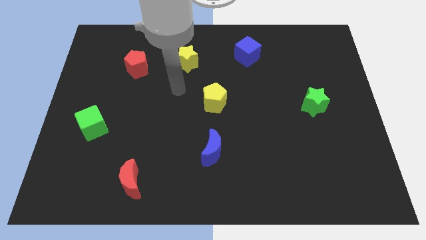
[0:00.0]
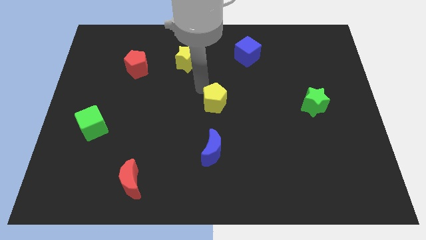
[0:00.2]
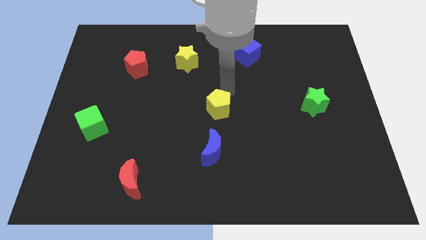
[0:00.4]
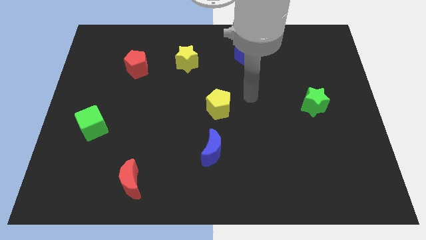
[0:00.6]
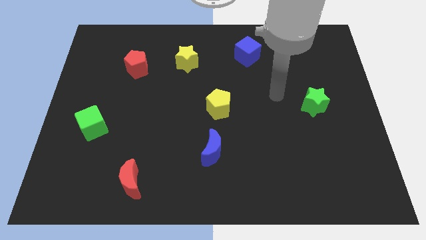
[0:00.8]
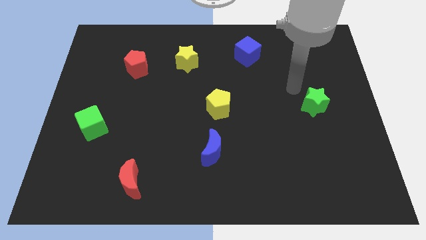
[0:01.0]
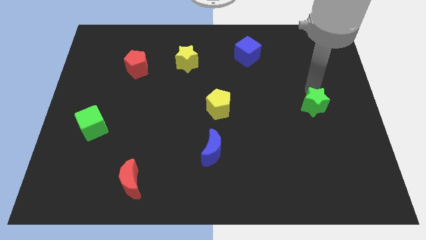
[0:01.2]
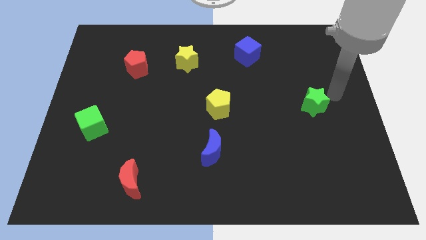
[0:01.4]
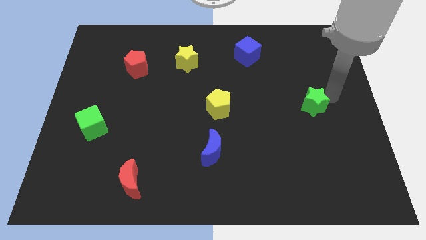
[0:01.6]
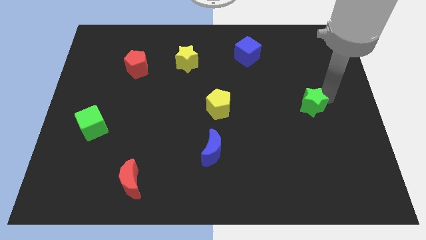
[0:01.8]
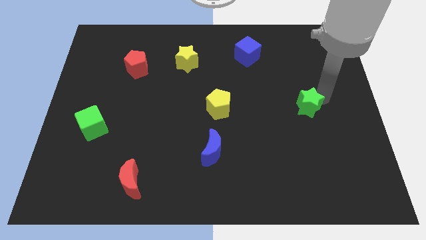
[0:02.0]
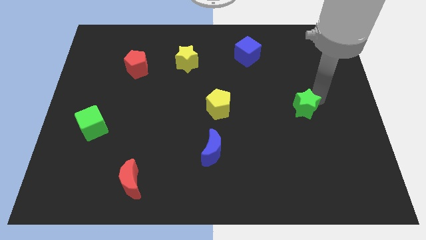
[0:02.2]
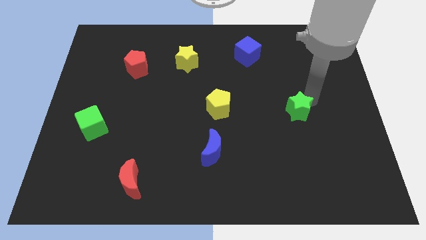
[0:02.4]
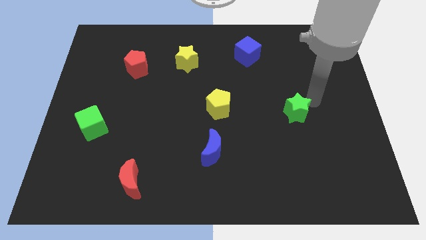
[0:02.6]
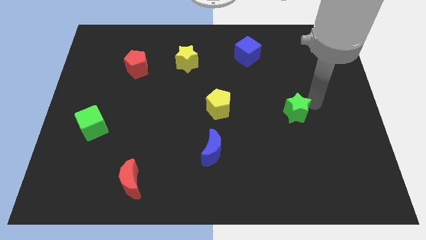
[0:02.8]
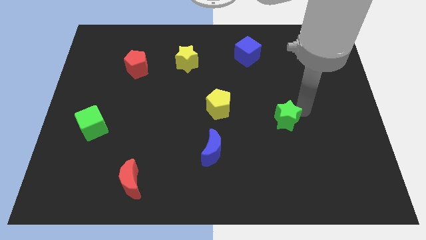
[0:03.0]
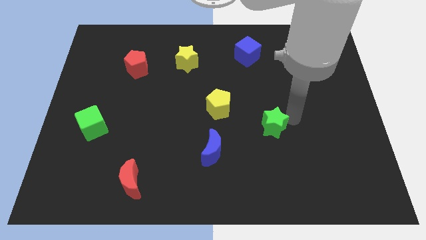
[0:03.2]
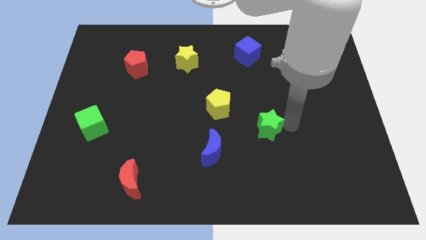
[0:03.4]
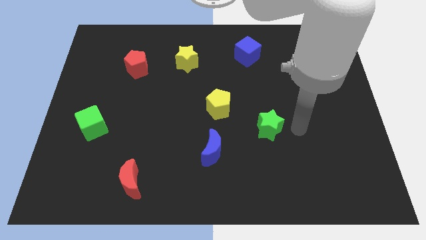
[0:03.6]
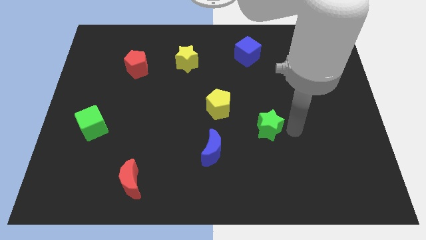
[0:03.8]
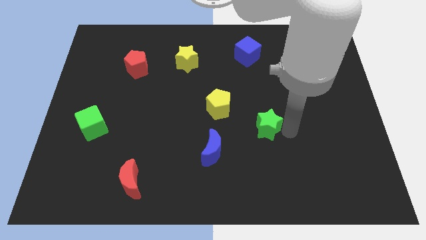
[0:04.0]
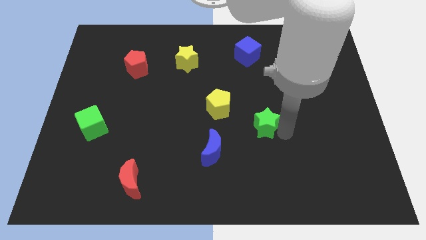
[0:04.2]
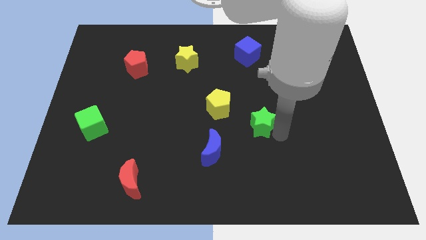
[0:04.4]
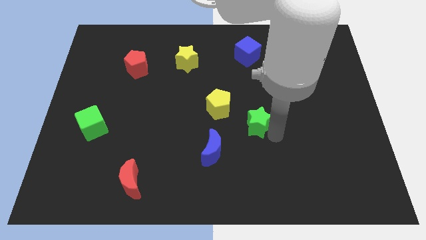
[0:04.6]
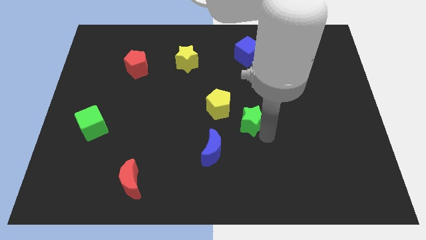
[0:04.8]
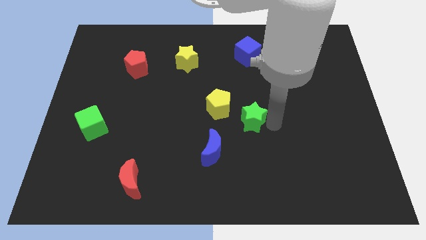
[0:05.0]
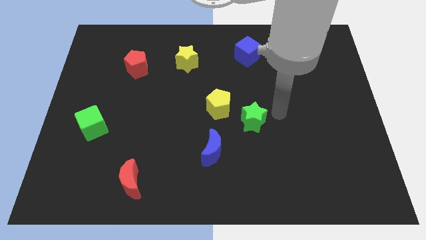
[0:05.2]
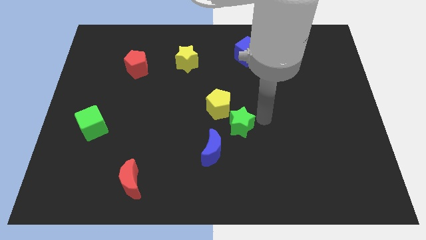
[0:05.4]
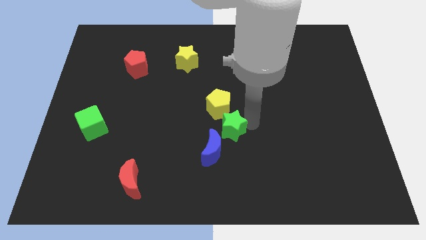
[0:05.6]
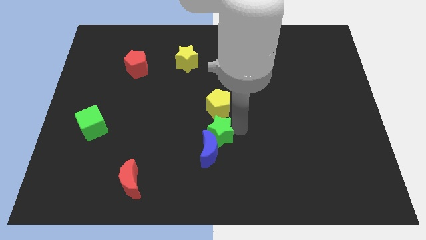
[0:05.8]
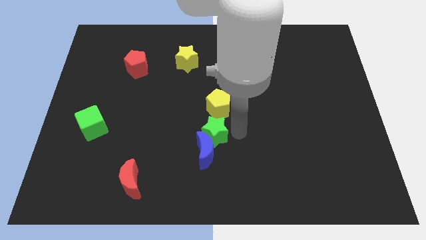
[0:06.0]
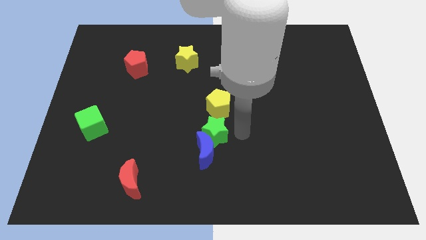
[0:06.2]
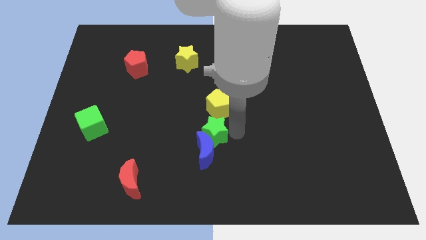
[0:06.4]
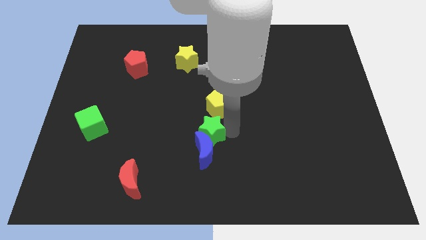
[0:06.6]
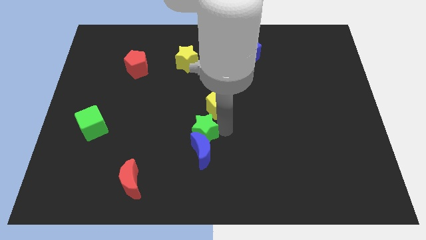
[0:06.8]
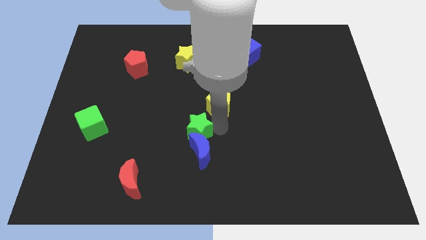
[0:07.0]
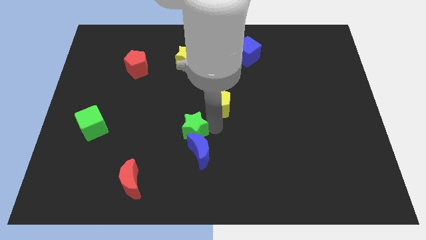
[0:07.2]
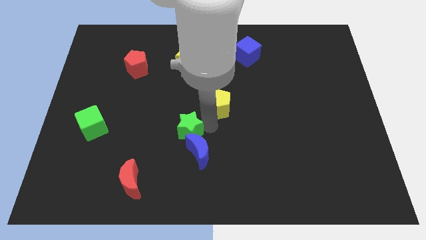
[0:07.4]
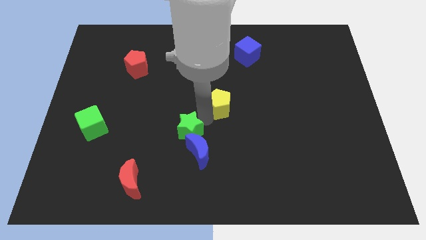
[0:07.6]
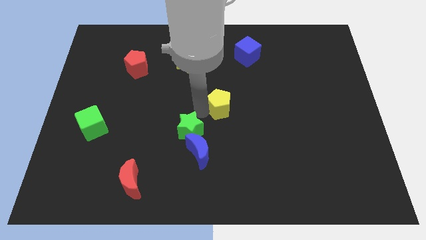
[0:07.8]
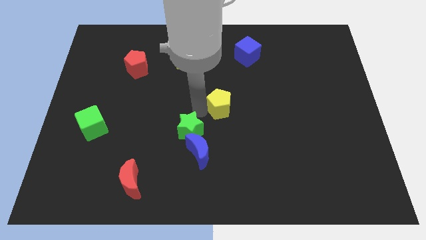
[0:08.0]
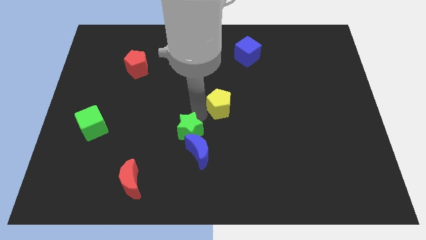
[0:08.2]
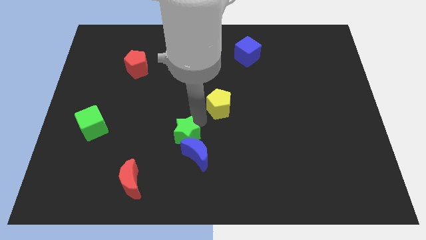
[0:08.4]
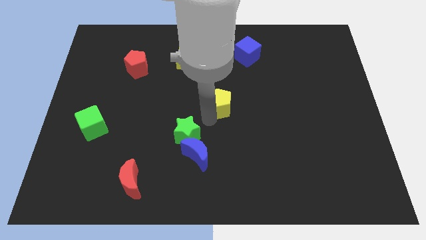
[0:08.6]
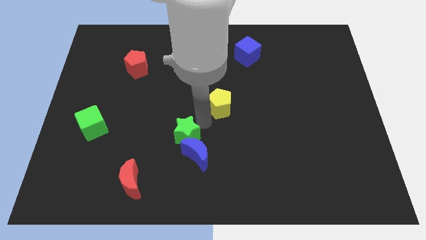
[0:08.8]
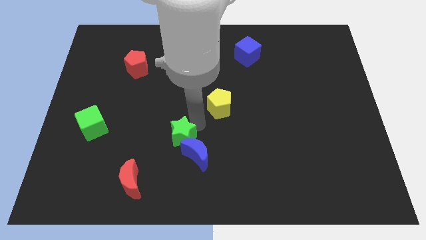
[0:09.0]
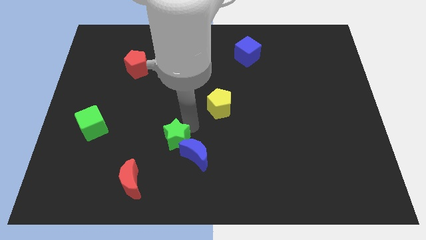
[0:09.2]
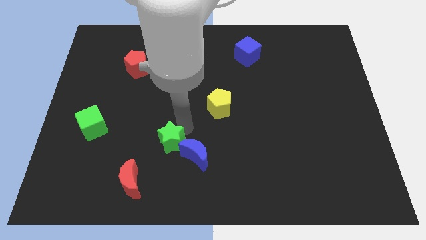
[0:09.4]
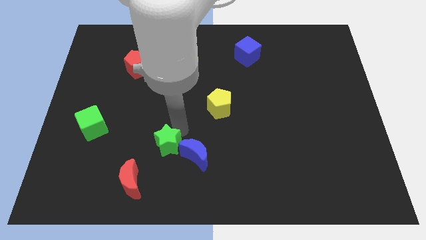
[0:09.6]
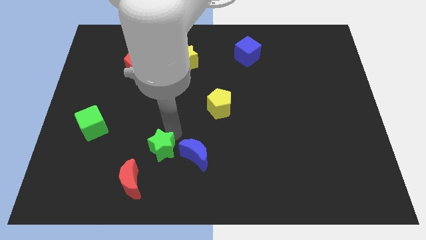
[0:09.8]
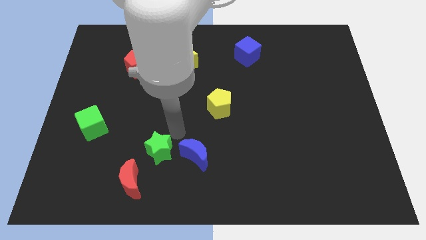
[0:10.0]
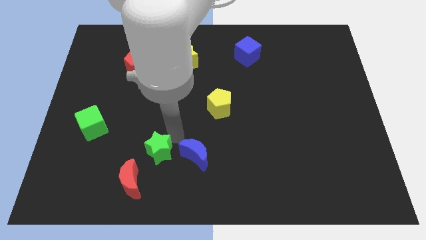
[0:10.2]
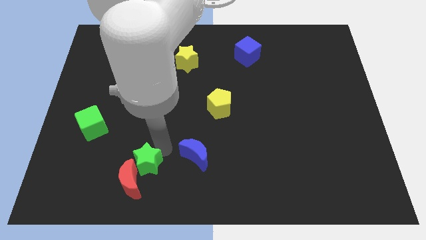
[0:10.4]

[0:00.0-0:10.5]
put the green star next to the red moon

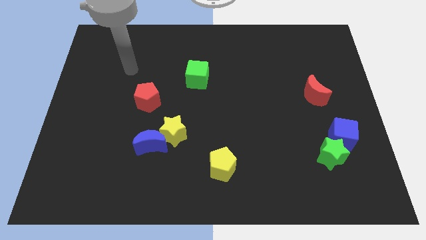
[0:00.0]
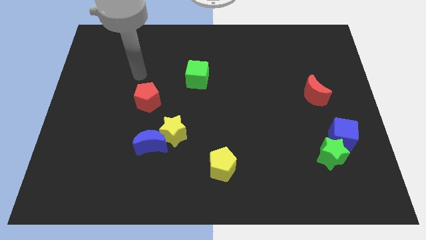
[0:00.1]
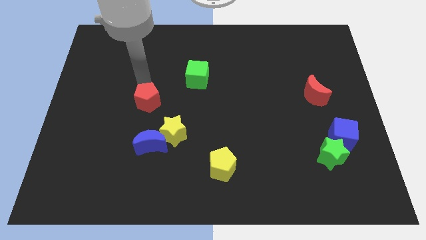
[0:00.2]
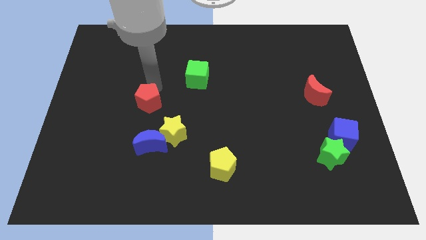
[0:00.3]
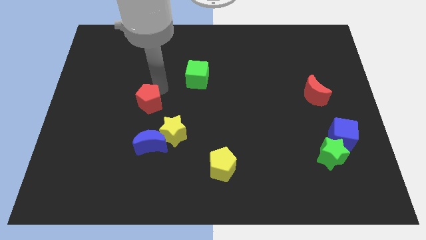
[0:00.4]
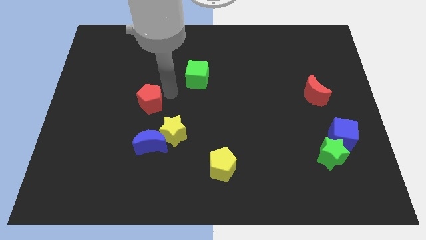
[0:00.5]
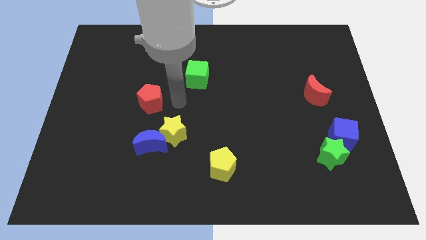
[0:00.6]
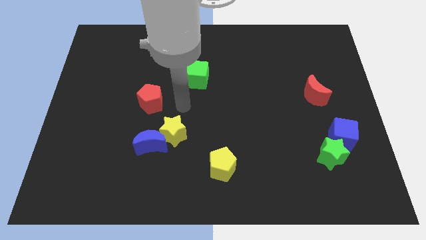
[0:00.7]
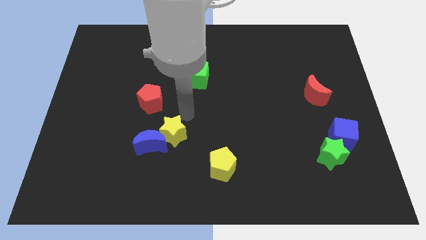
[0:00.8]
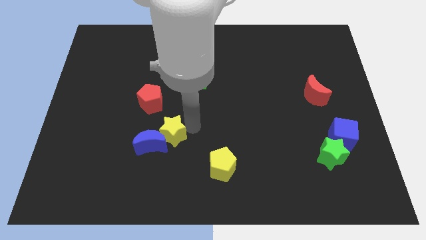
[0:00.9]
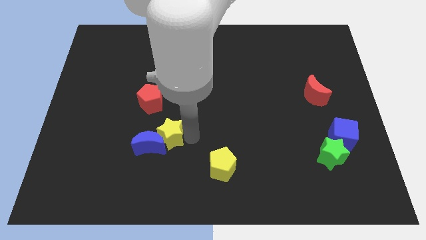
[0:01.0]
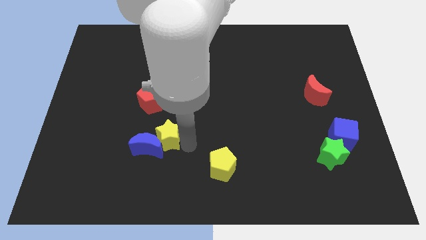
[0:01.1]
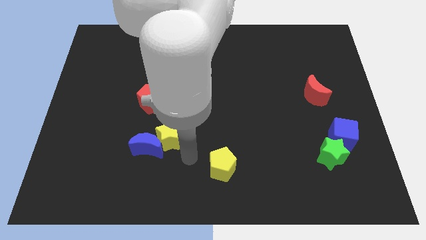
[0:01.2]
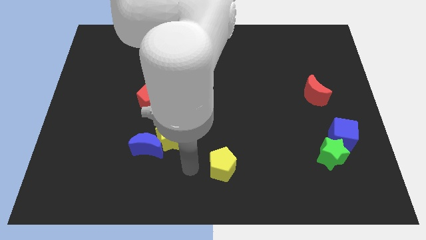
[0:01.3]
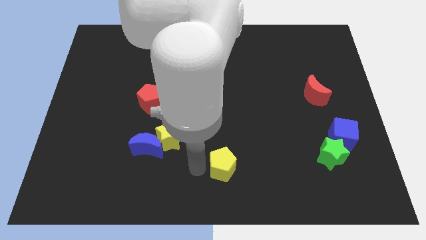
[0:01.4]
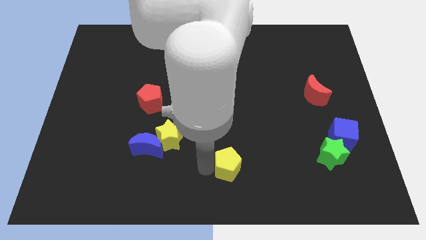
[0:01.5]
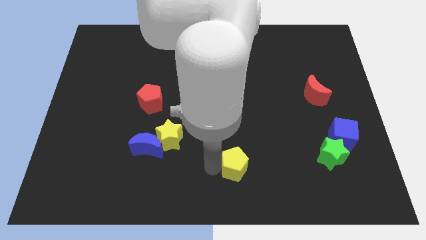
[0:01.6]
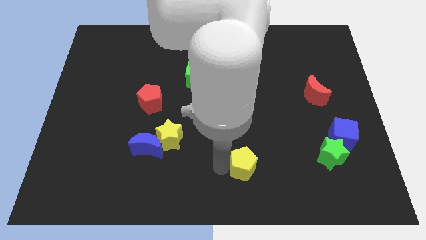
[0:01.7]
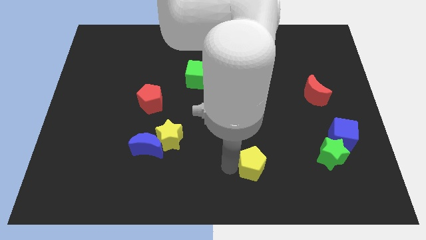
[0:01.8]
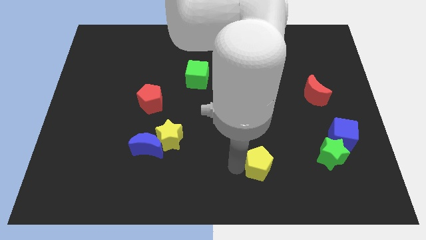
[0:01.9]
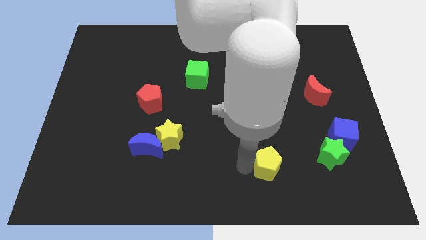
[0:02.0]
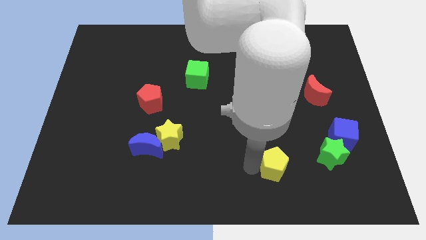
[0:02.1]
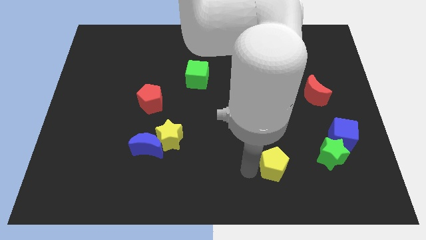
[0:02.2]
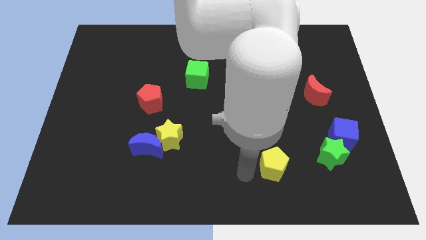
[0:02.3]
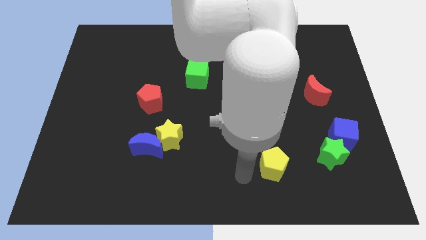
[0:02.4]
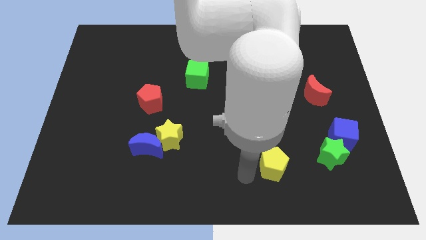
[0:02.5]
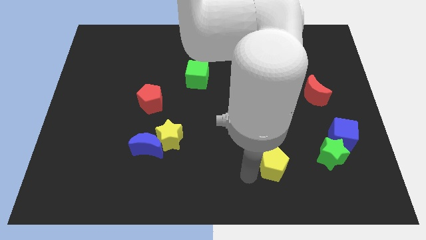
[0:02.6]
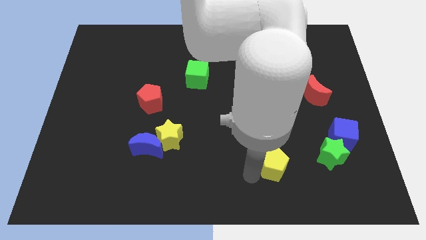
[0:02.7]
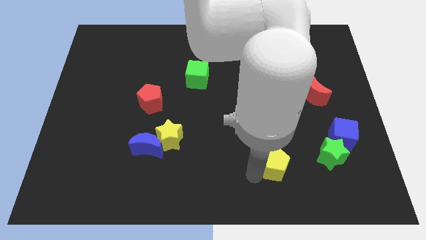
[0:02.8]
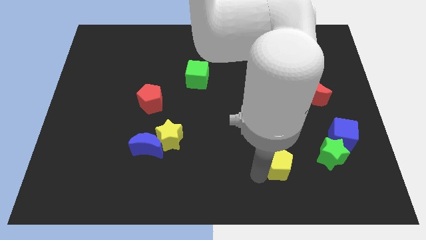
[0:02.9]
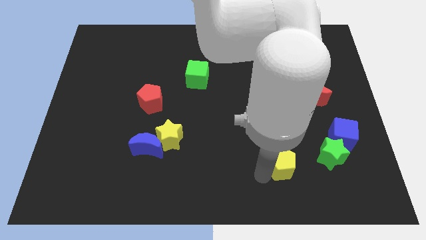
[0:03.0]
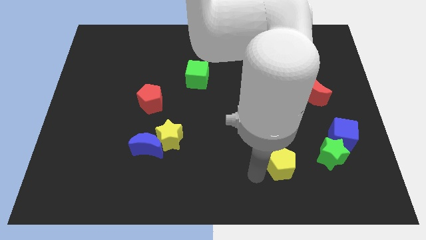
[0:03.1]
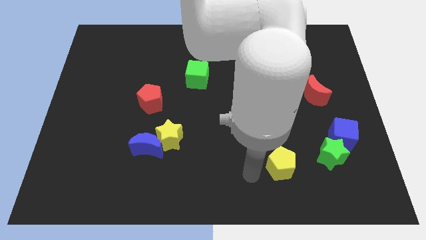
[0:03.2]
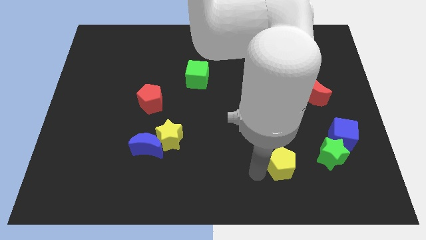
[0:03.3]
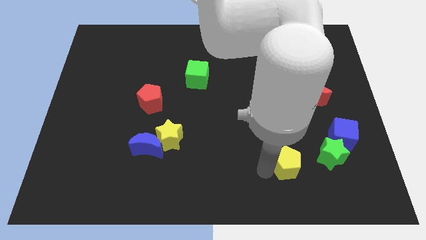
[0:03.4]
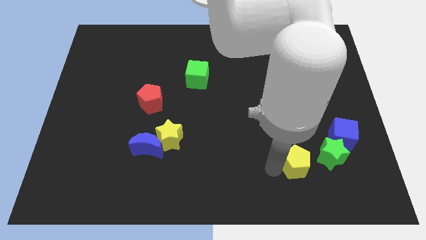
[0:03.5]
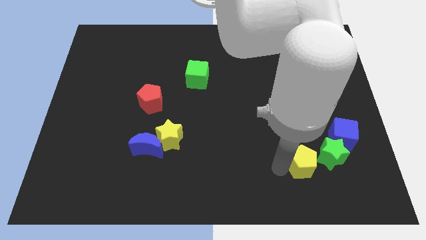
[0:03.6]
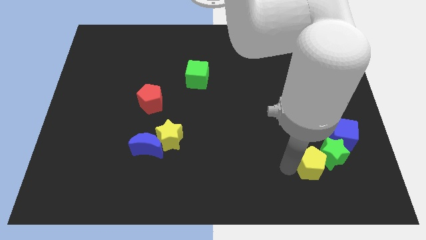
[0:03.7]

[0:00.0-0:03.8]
push the yellow pentagon to the green star
